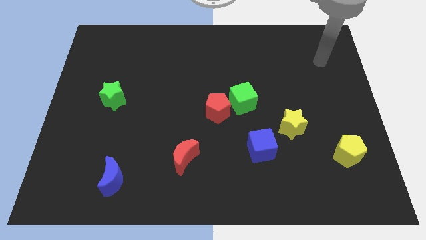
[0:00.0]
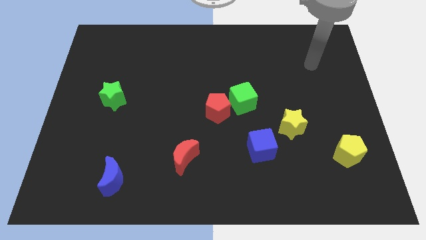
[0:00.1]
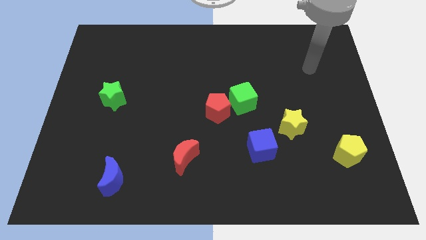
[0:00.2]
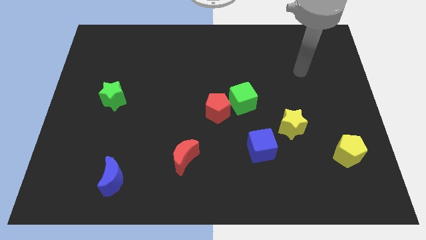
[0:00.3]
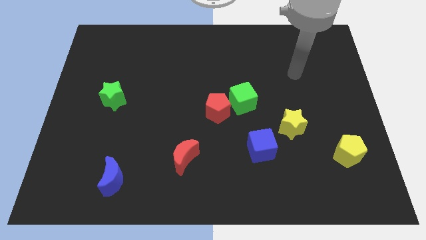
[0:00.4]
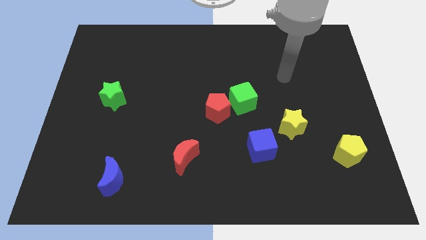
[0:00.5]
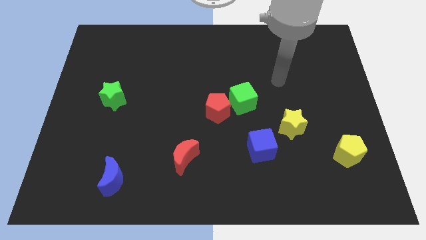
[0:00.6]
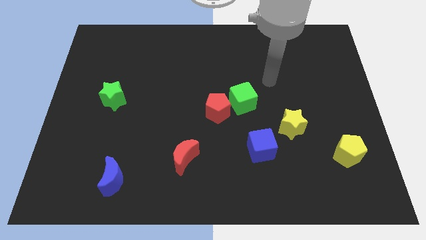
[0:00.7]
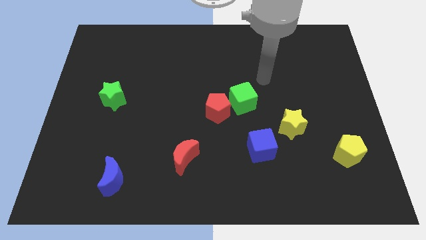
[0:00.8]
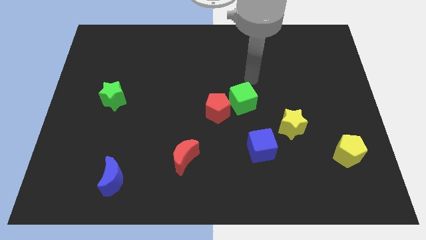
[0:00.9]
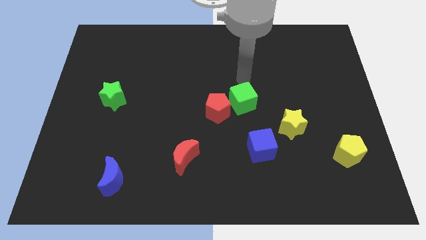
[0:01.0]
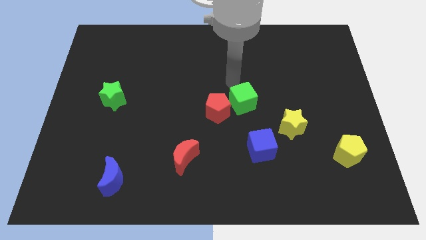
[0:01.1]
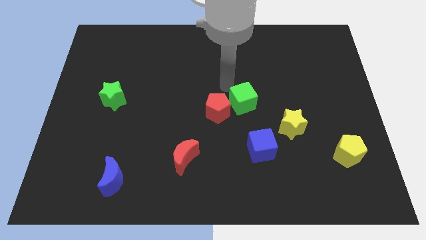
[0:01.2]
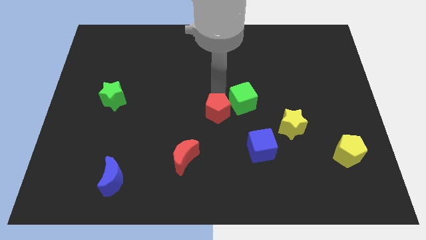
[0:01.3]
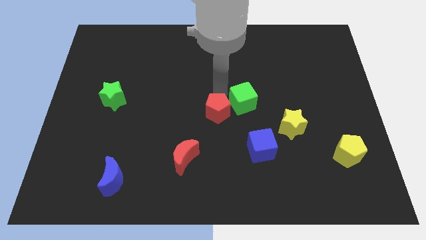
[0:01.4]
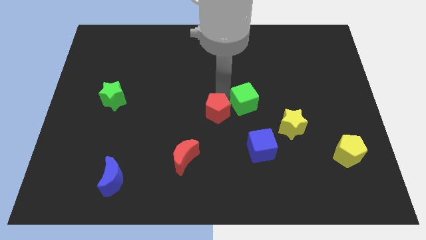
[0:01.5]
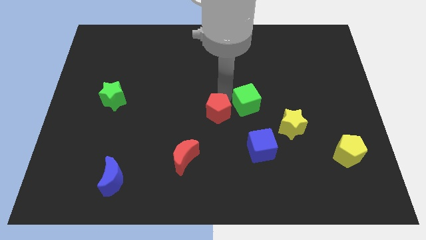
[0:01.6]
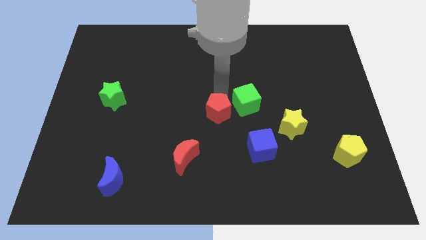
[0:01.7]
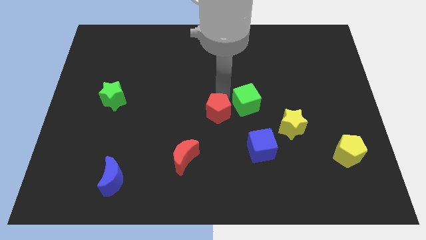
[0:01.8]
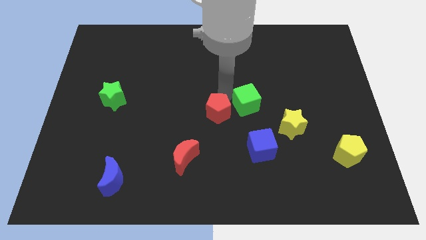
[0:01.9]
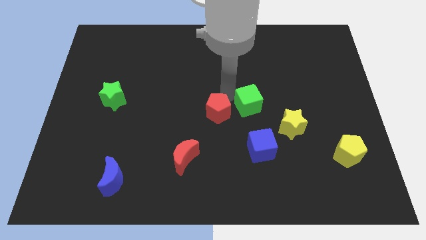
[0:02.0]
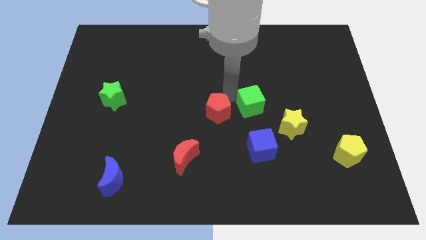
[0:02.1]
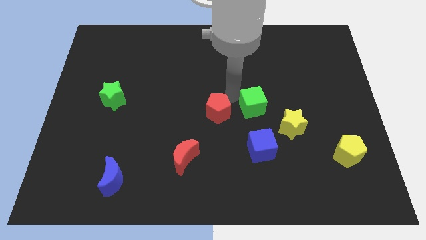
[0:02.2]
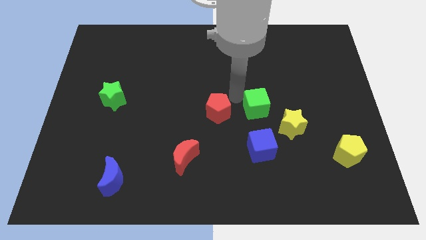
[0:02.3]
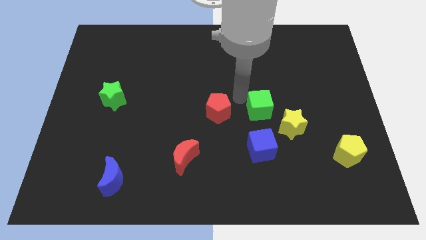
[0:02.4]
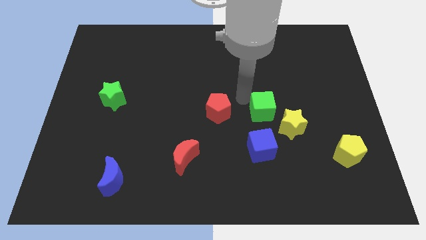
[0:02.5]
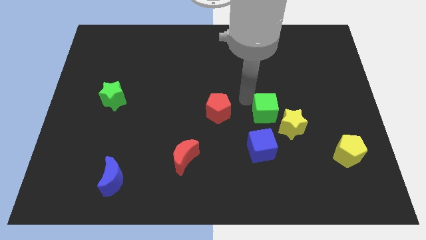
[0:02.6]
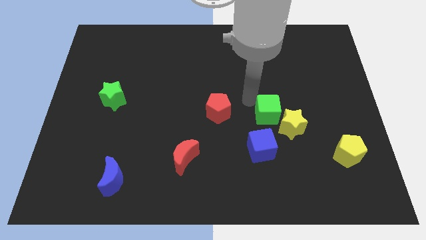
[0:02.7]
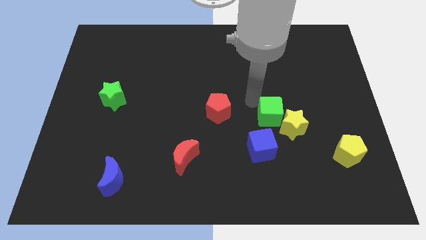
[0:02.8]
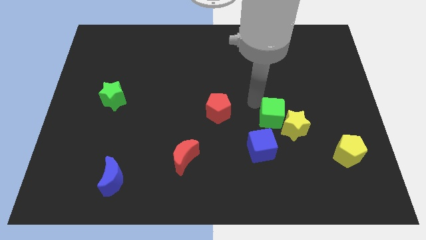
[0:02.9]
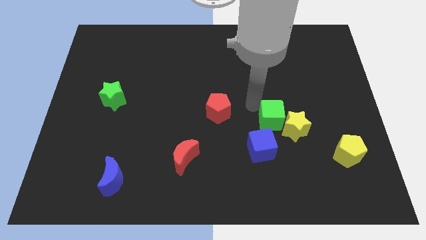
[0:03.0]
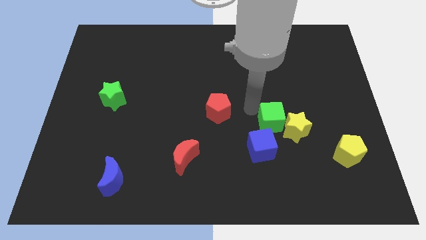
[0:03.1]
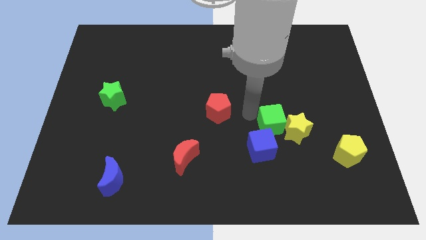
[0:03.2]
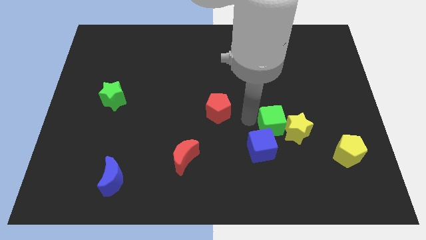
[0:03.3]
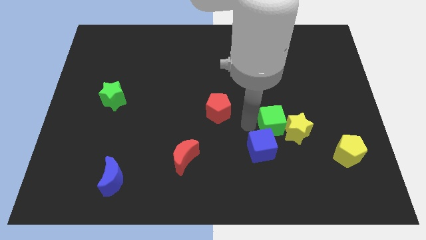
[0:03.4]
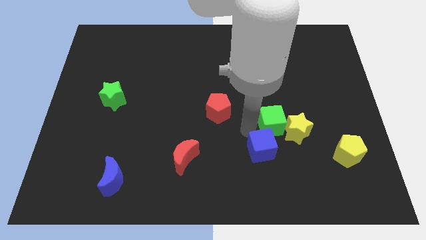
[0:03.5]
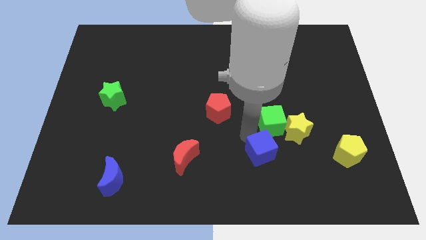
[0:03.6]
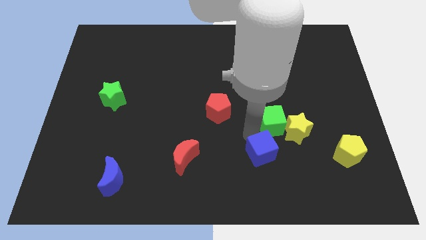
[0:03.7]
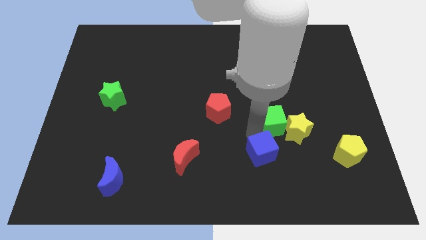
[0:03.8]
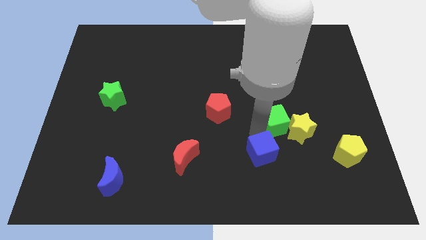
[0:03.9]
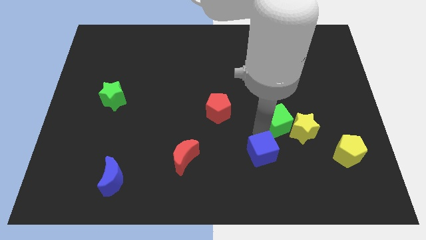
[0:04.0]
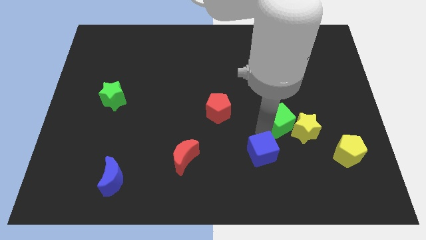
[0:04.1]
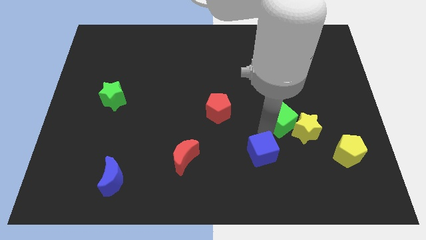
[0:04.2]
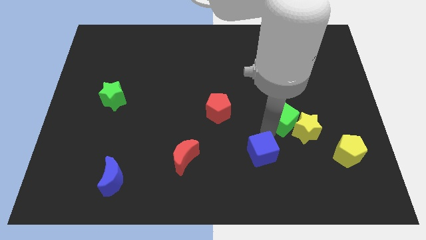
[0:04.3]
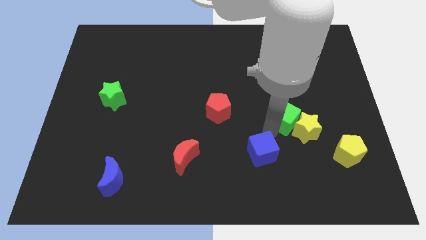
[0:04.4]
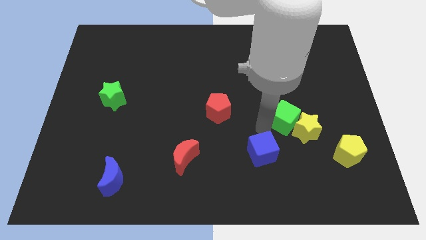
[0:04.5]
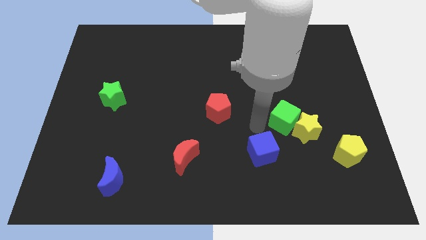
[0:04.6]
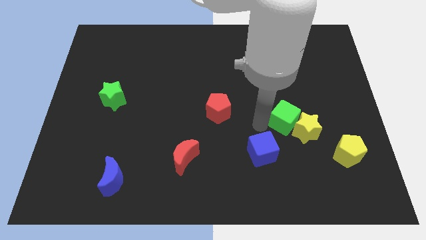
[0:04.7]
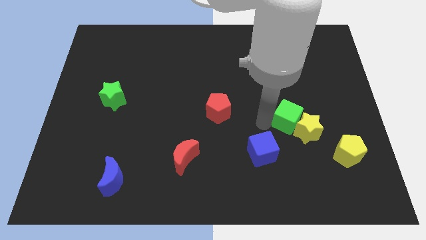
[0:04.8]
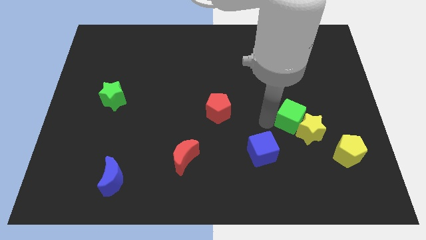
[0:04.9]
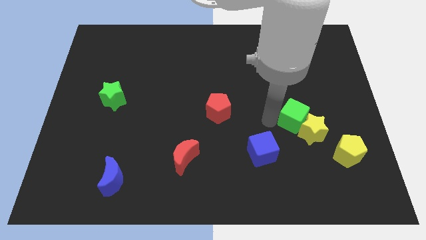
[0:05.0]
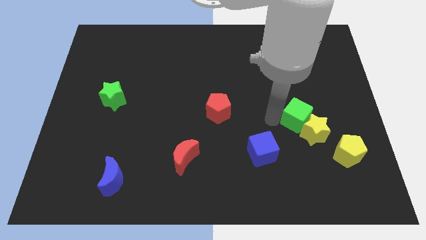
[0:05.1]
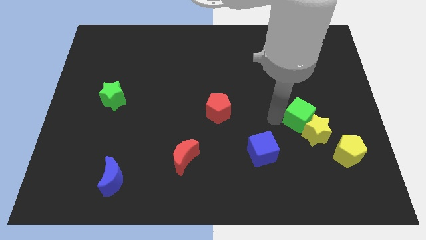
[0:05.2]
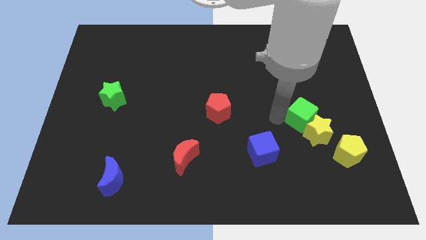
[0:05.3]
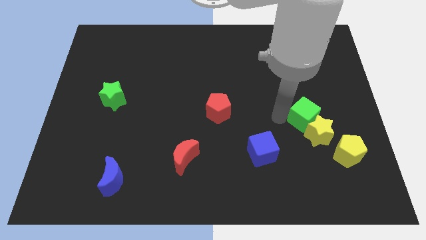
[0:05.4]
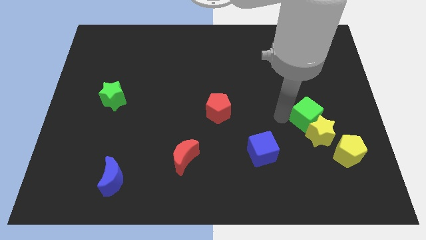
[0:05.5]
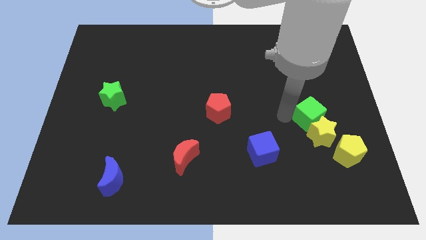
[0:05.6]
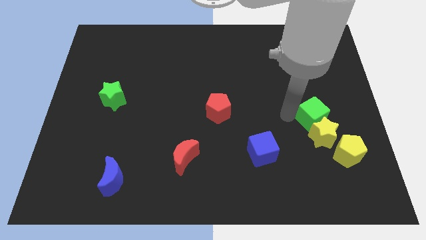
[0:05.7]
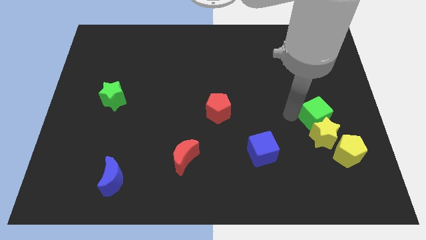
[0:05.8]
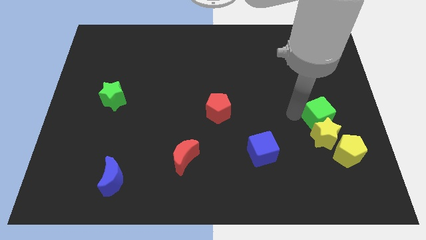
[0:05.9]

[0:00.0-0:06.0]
push the green cube above the yellow pentagon

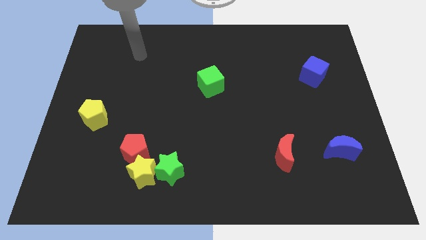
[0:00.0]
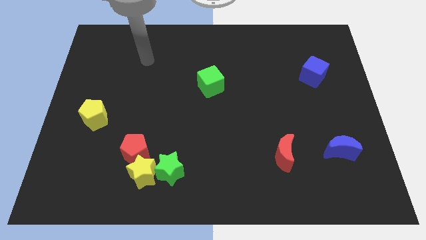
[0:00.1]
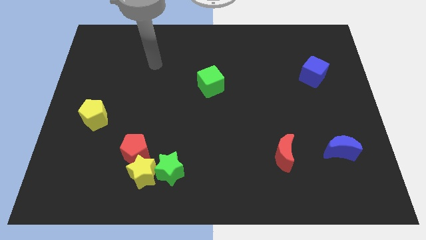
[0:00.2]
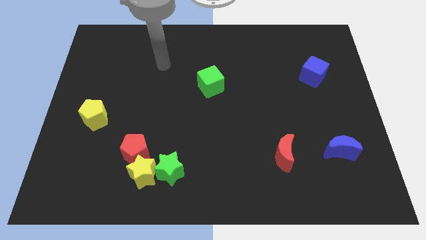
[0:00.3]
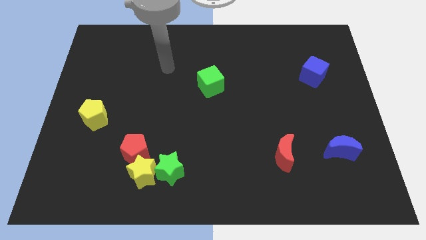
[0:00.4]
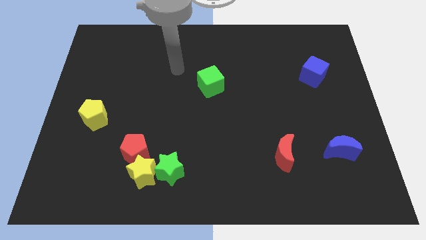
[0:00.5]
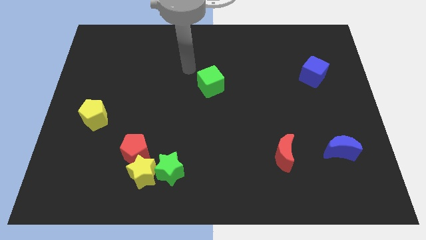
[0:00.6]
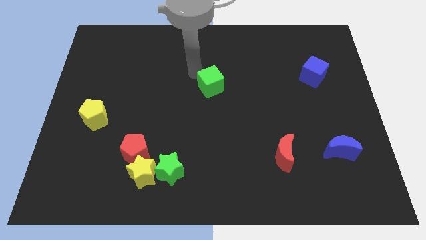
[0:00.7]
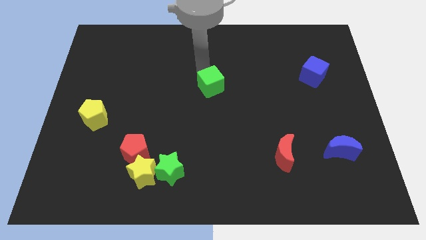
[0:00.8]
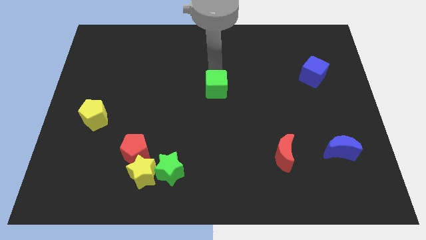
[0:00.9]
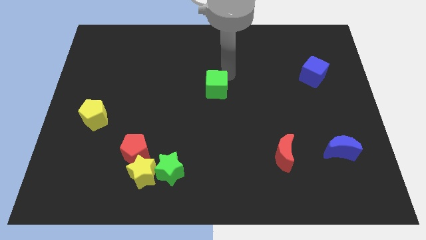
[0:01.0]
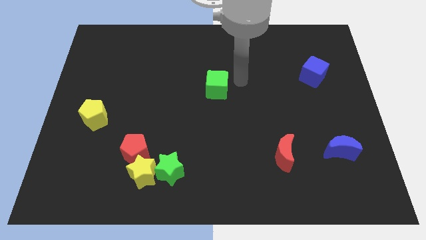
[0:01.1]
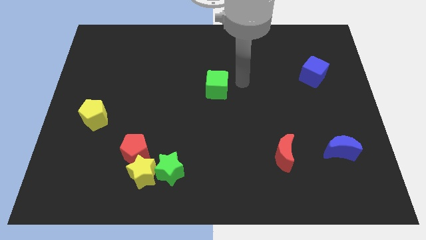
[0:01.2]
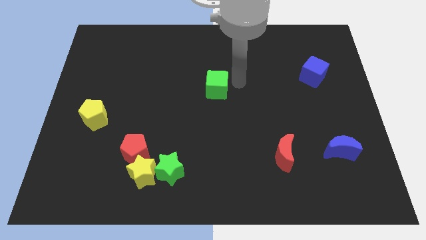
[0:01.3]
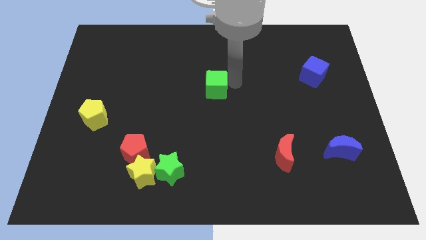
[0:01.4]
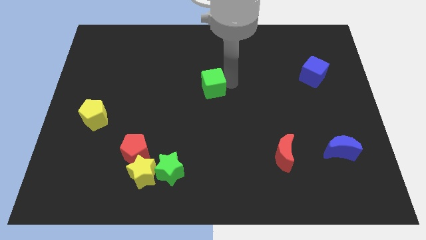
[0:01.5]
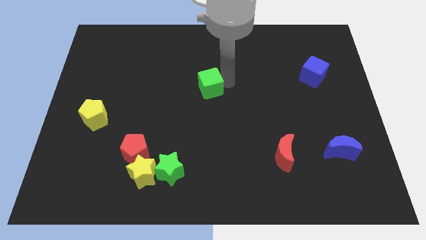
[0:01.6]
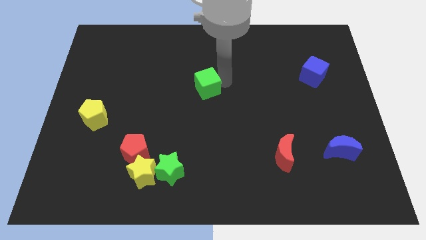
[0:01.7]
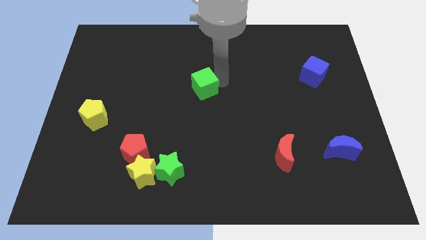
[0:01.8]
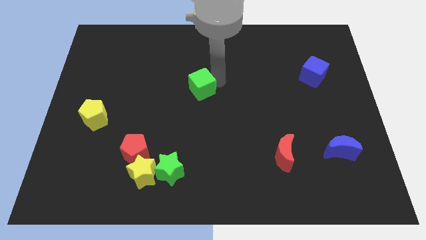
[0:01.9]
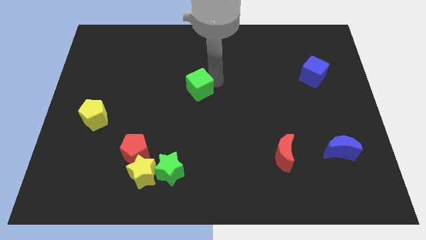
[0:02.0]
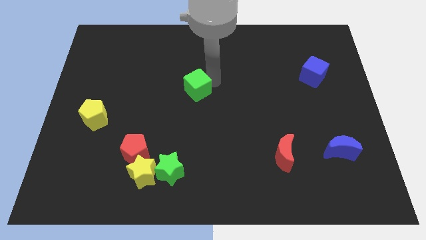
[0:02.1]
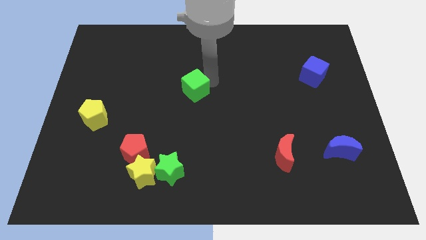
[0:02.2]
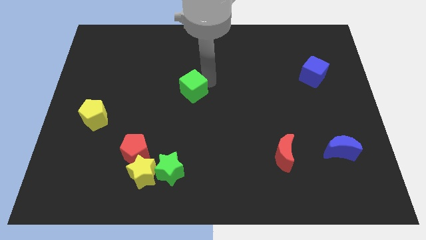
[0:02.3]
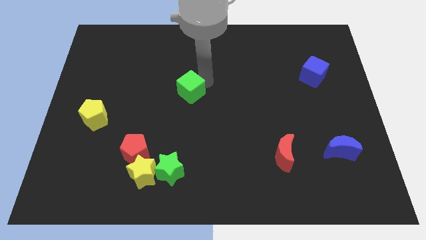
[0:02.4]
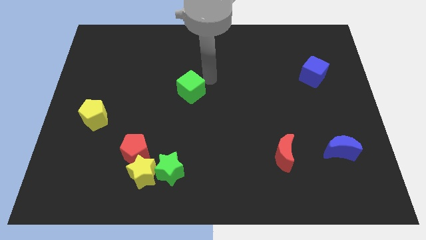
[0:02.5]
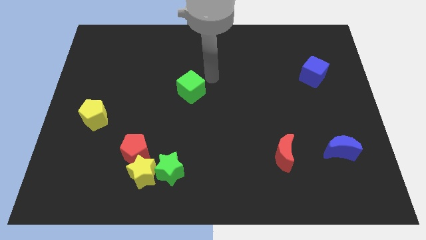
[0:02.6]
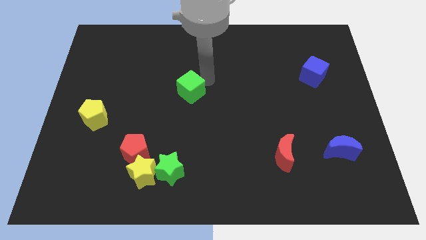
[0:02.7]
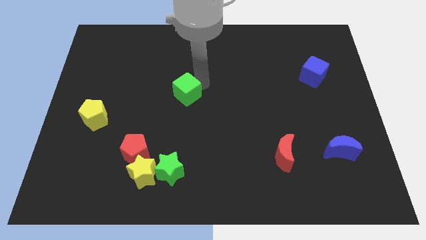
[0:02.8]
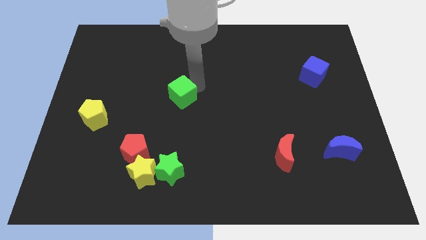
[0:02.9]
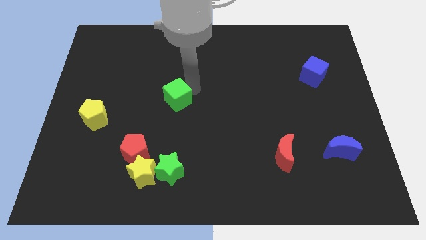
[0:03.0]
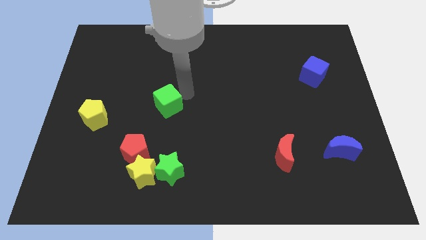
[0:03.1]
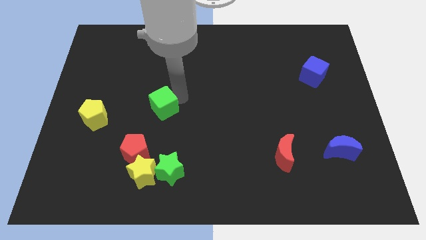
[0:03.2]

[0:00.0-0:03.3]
push the green cube to the top of the red pentagon
